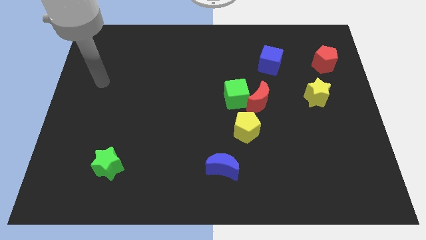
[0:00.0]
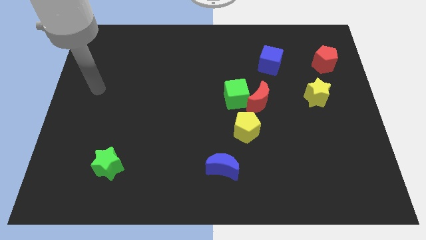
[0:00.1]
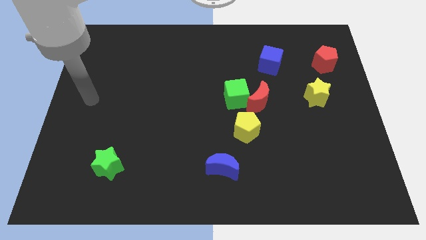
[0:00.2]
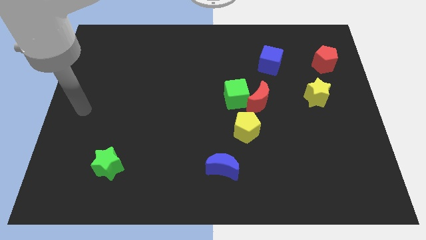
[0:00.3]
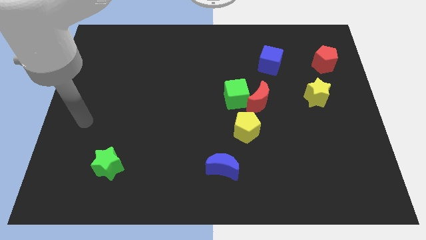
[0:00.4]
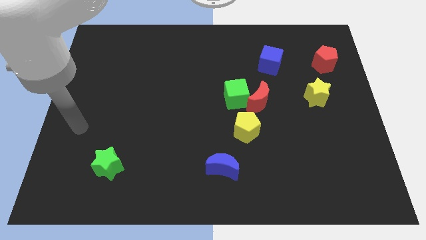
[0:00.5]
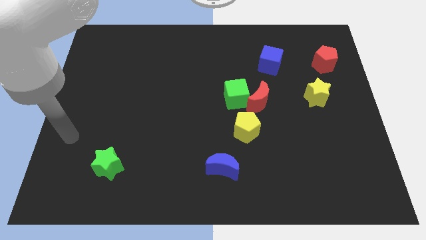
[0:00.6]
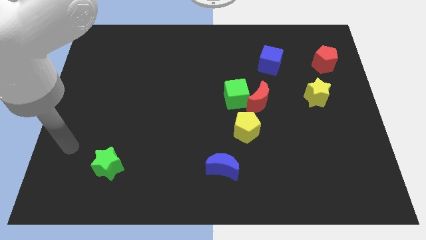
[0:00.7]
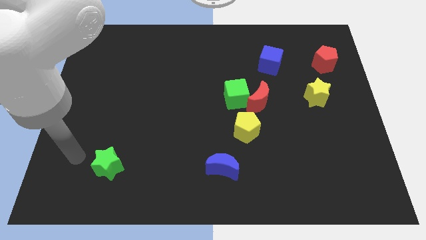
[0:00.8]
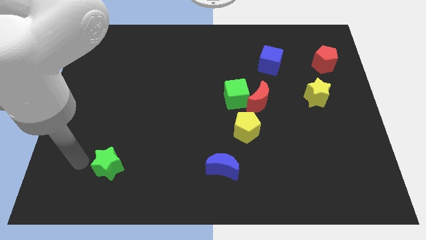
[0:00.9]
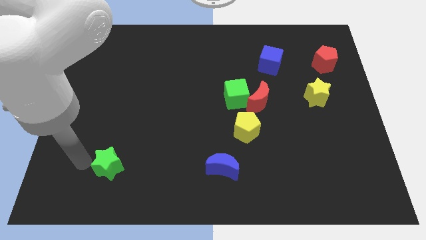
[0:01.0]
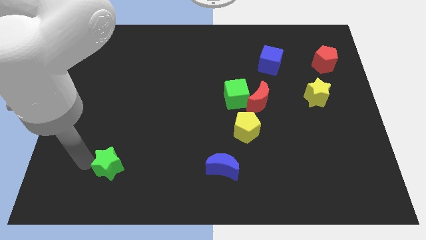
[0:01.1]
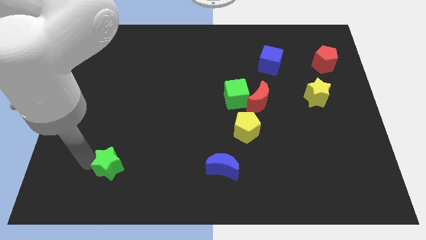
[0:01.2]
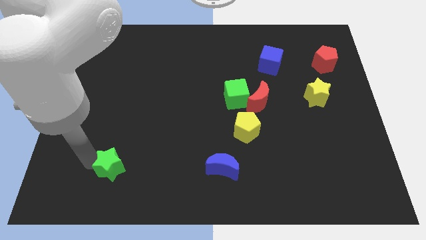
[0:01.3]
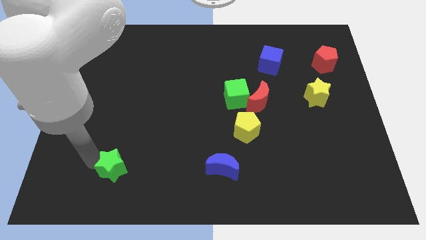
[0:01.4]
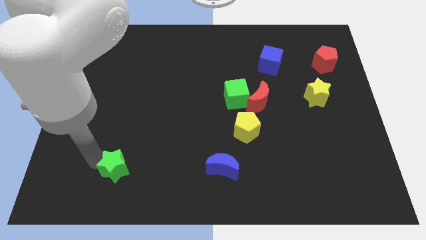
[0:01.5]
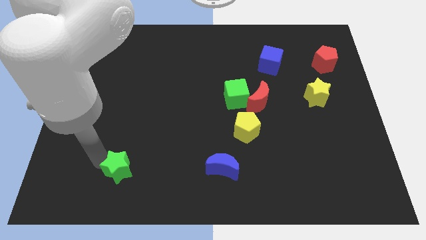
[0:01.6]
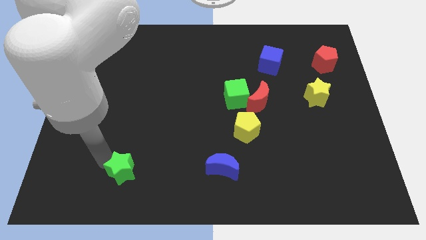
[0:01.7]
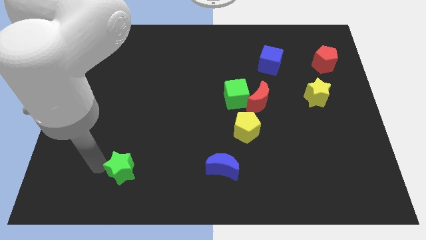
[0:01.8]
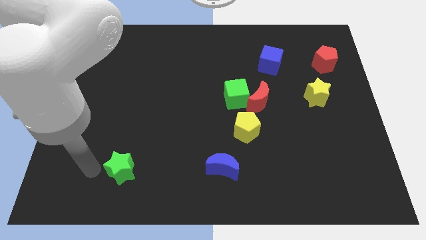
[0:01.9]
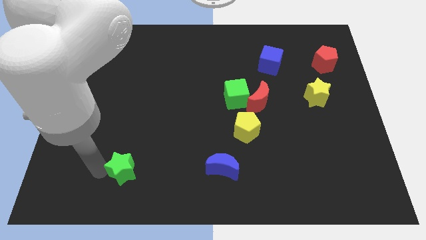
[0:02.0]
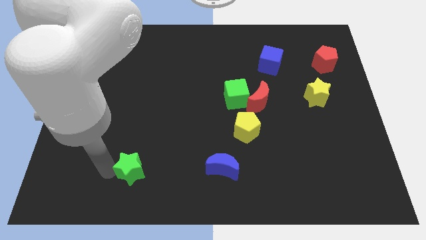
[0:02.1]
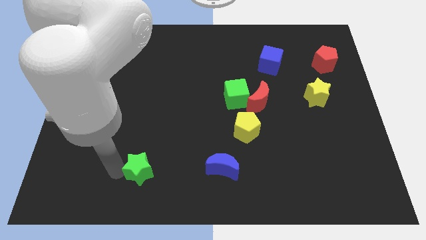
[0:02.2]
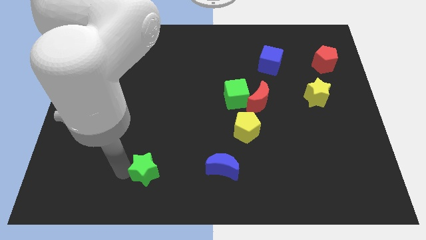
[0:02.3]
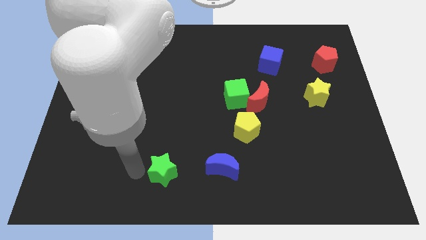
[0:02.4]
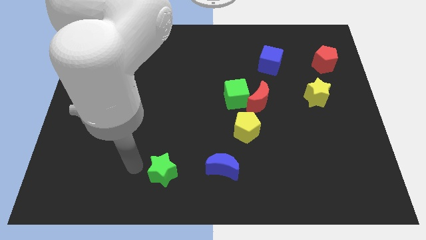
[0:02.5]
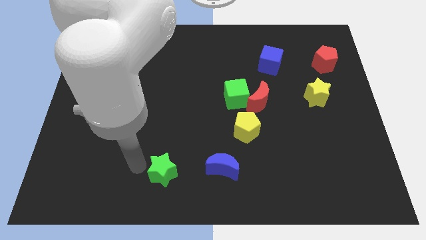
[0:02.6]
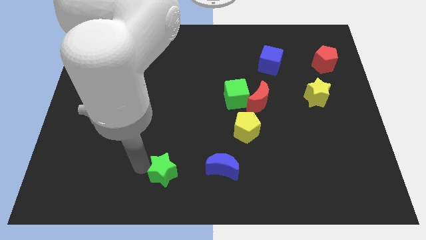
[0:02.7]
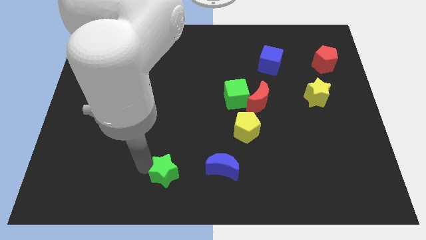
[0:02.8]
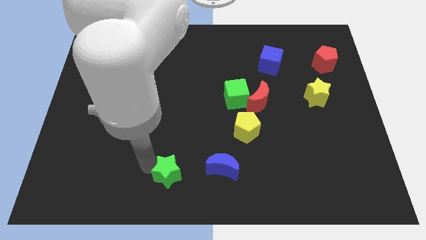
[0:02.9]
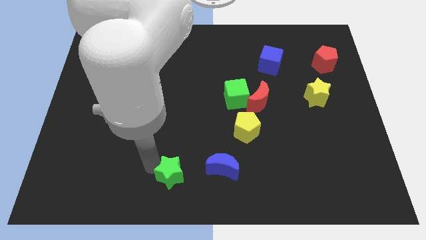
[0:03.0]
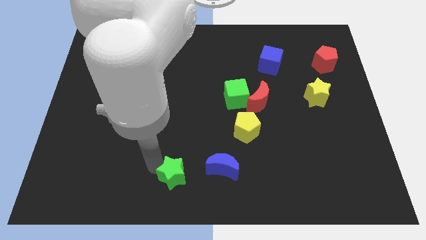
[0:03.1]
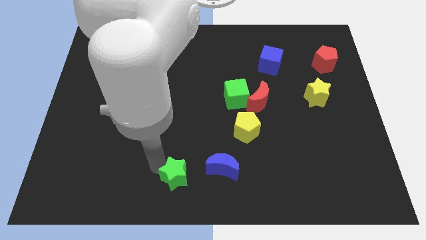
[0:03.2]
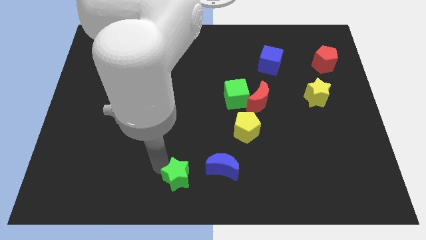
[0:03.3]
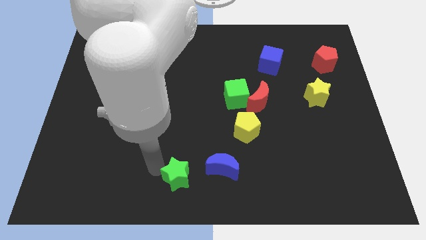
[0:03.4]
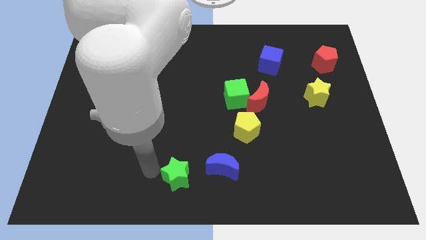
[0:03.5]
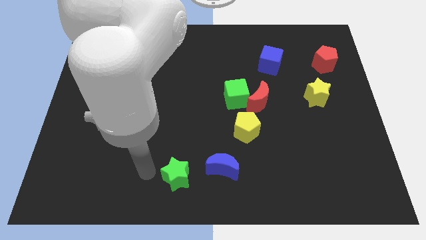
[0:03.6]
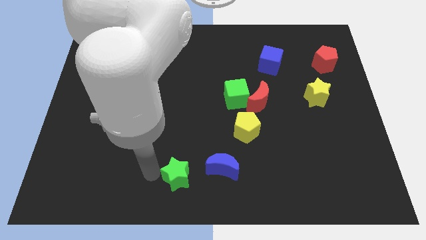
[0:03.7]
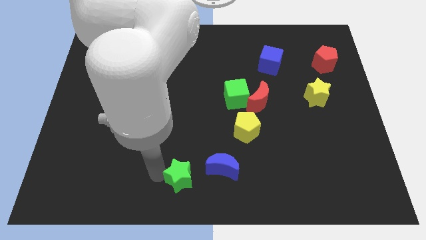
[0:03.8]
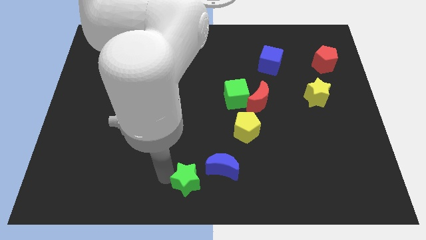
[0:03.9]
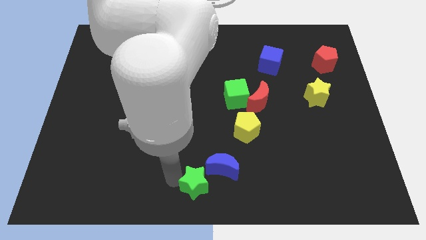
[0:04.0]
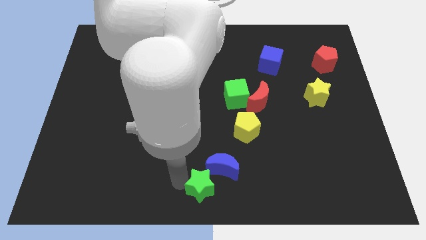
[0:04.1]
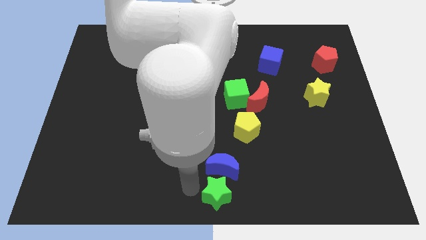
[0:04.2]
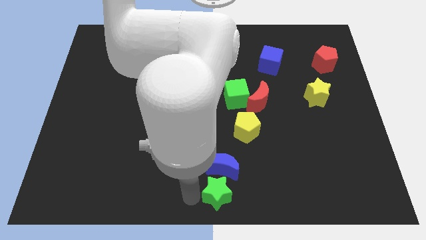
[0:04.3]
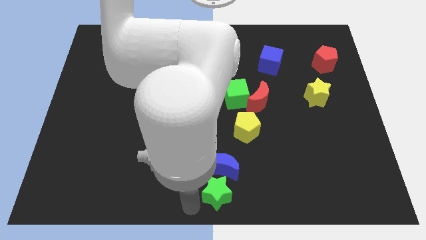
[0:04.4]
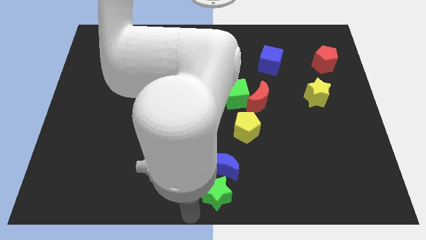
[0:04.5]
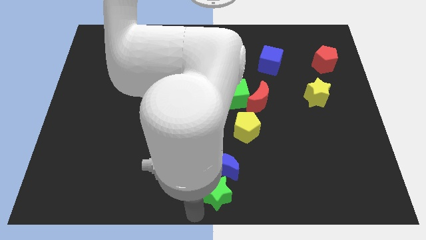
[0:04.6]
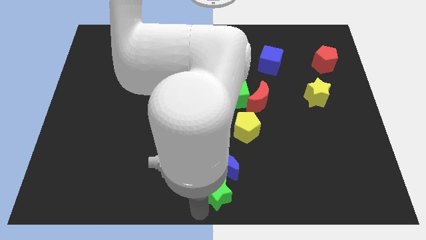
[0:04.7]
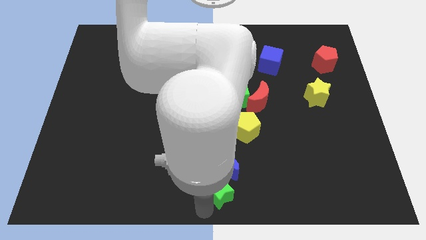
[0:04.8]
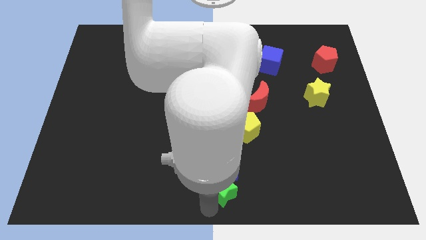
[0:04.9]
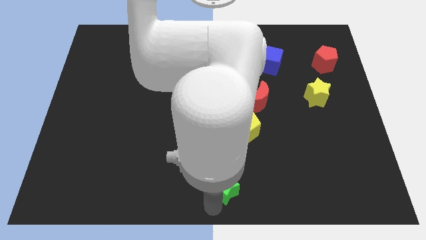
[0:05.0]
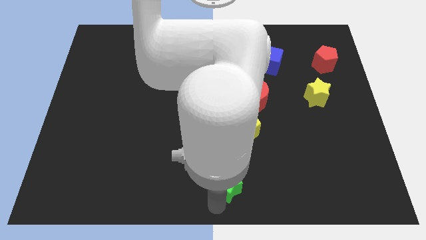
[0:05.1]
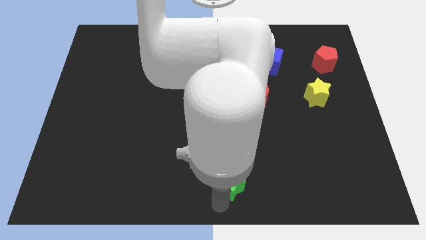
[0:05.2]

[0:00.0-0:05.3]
put the green star to the bottom of the yellow pentagon

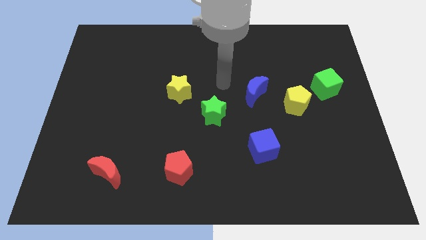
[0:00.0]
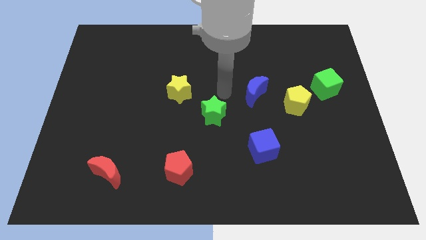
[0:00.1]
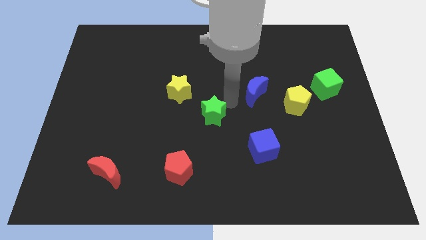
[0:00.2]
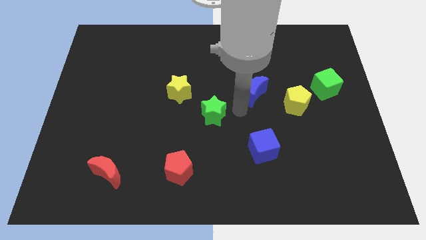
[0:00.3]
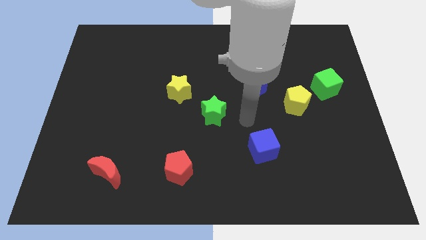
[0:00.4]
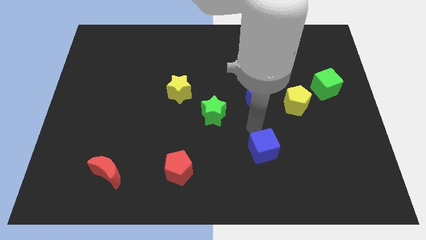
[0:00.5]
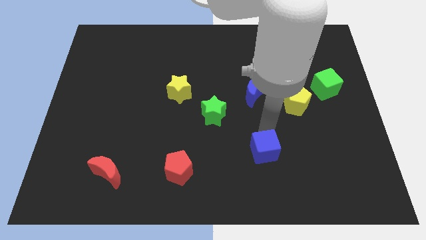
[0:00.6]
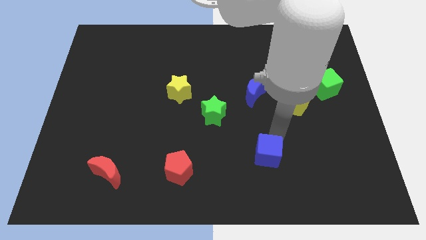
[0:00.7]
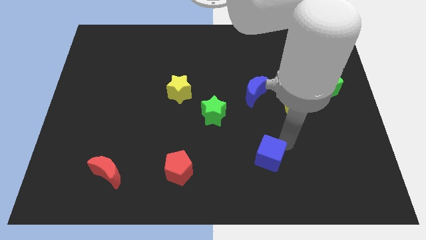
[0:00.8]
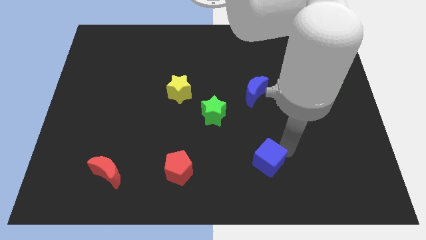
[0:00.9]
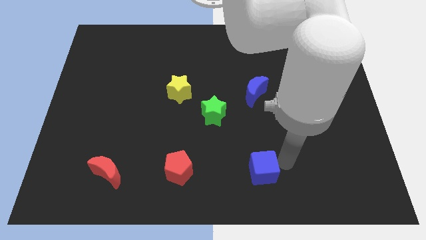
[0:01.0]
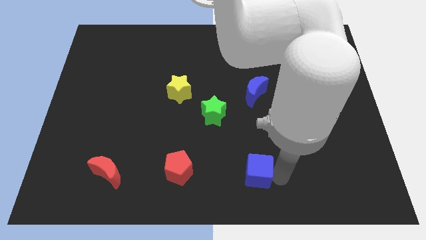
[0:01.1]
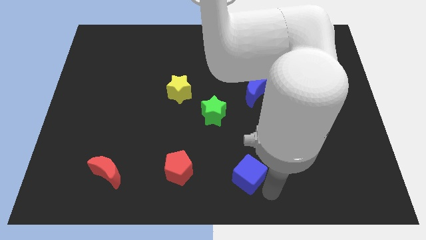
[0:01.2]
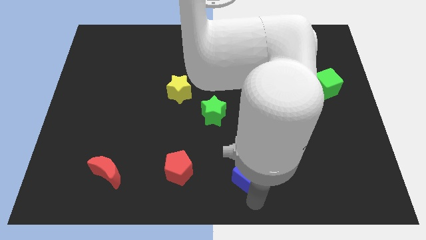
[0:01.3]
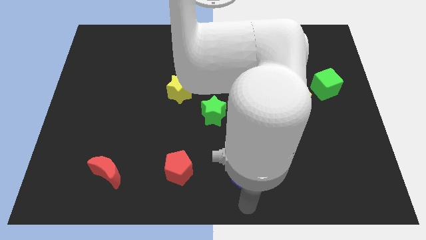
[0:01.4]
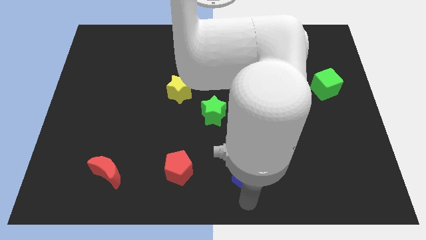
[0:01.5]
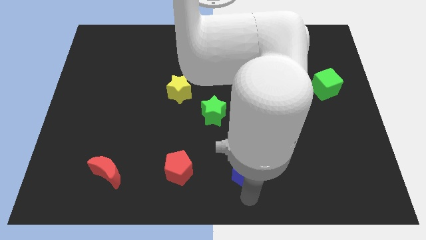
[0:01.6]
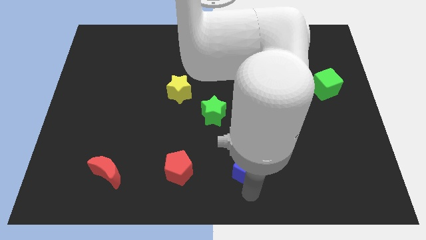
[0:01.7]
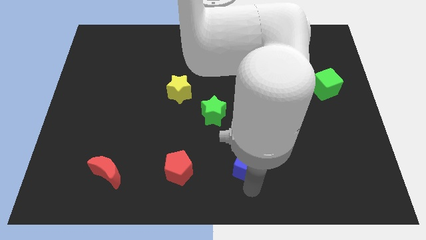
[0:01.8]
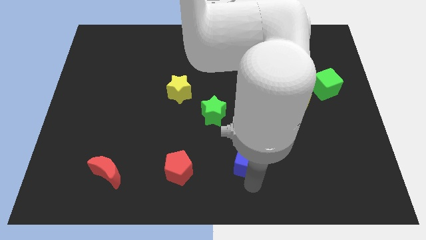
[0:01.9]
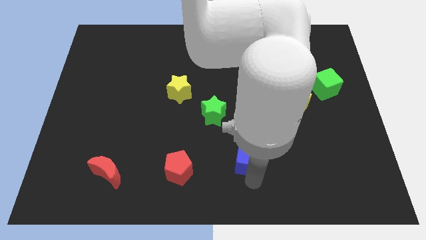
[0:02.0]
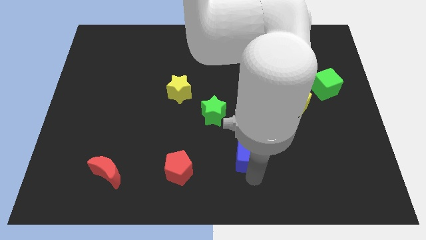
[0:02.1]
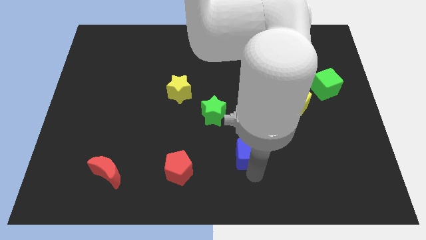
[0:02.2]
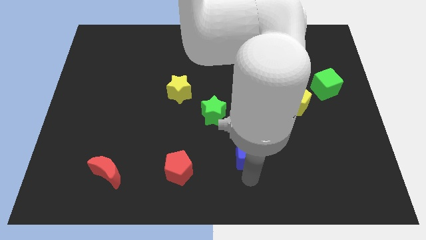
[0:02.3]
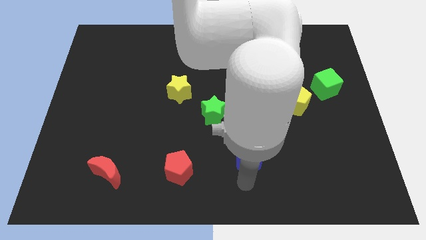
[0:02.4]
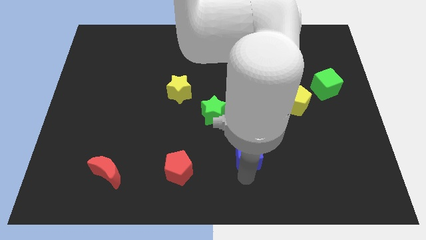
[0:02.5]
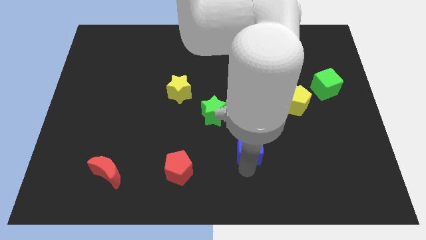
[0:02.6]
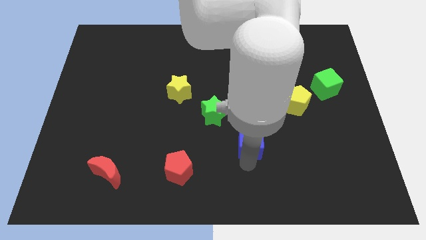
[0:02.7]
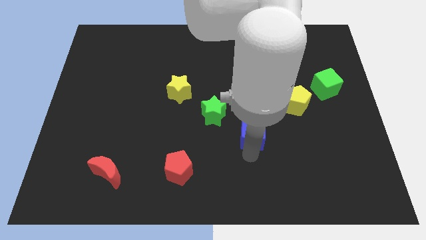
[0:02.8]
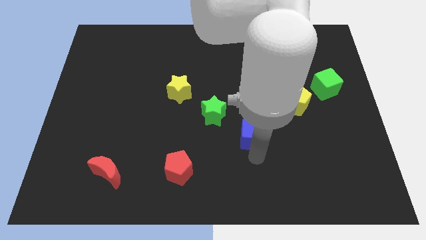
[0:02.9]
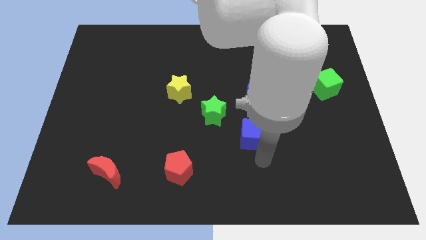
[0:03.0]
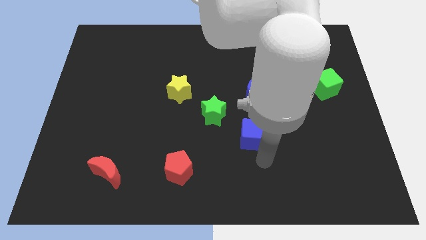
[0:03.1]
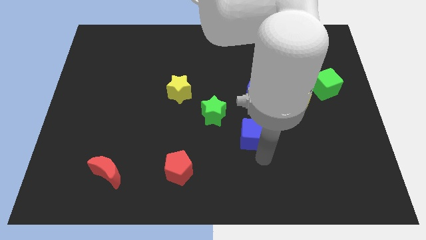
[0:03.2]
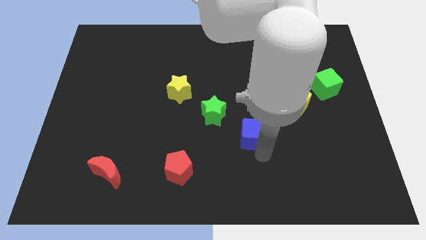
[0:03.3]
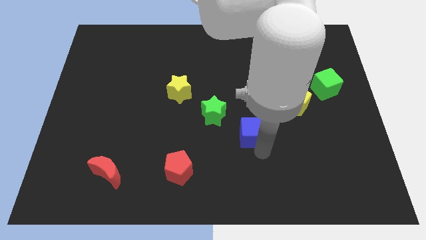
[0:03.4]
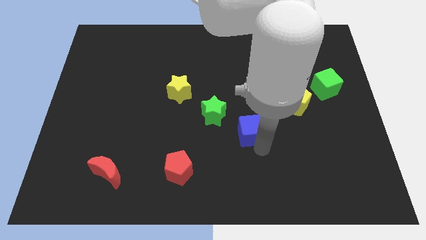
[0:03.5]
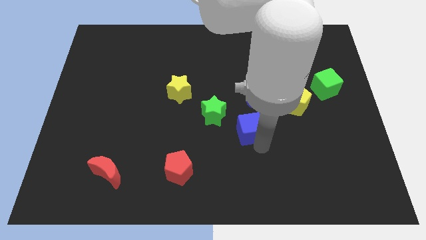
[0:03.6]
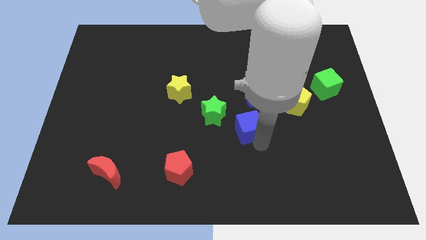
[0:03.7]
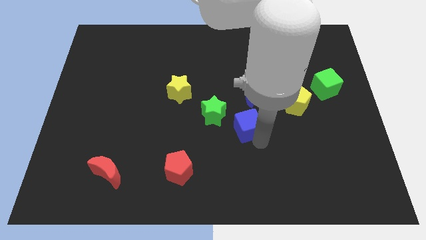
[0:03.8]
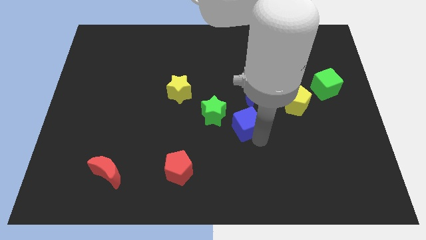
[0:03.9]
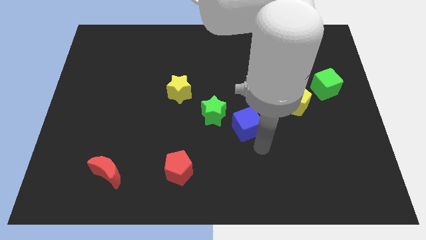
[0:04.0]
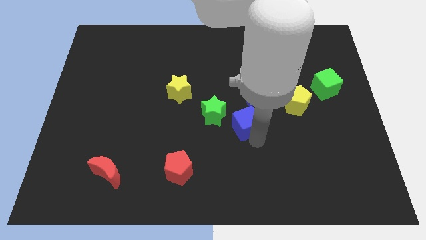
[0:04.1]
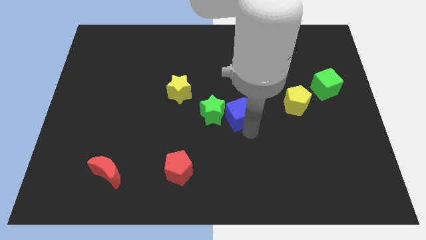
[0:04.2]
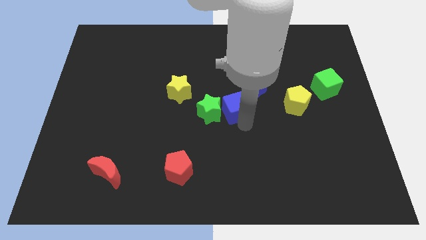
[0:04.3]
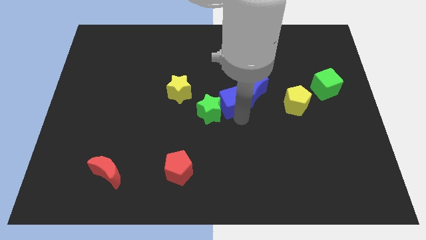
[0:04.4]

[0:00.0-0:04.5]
put the blue cube right of the yellow star
